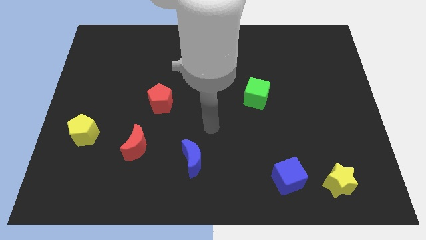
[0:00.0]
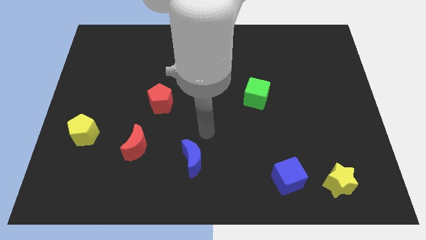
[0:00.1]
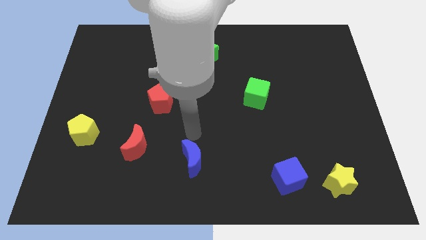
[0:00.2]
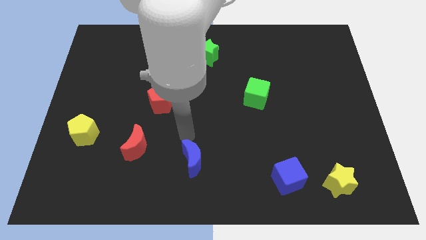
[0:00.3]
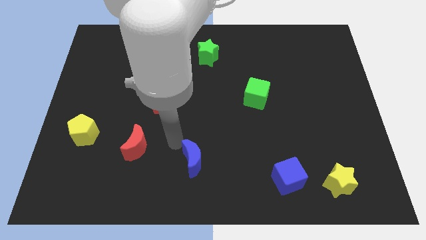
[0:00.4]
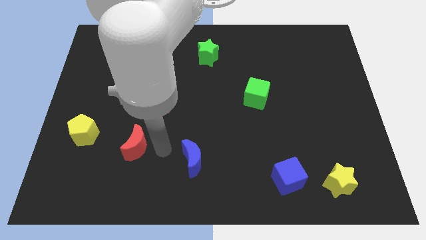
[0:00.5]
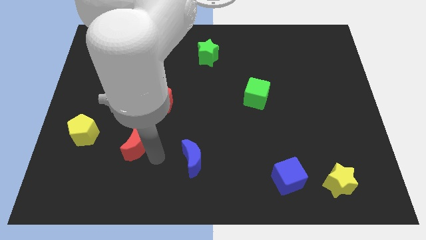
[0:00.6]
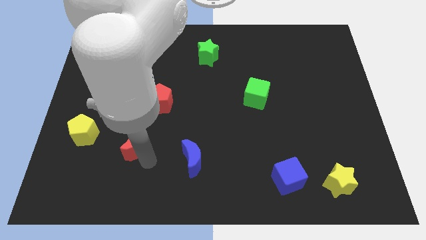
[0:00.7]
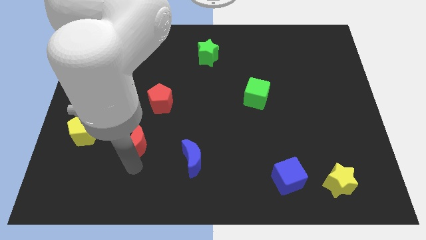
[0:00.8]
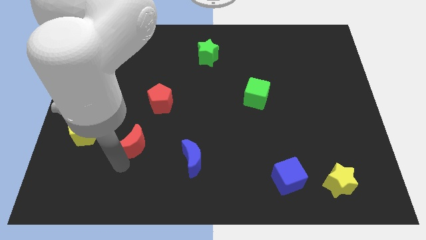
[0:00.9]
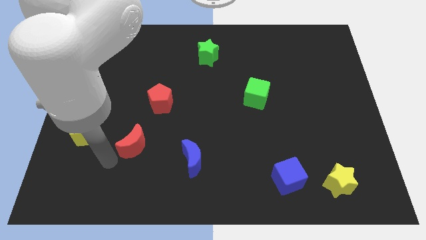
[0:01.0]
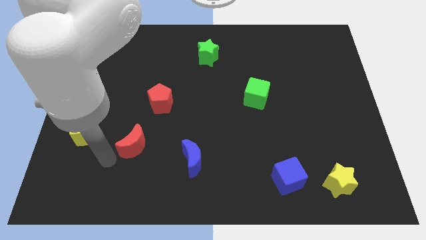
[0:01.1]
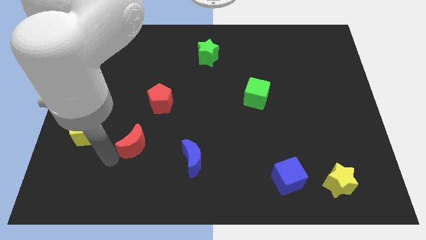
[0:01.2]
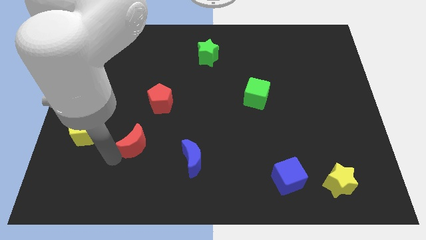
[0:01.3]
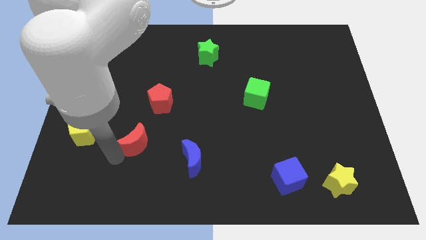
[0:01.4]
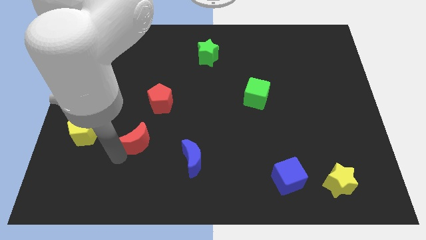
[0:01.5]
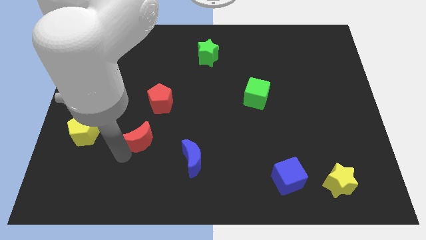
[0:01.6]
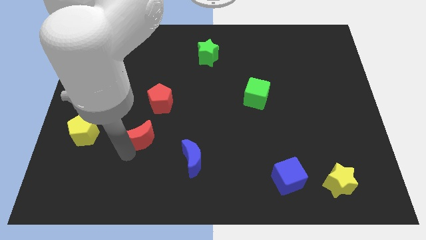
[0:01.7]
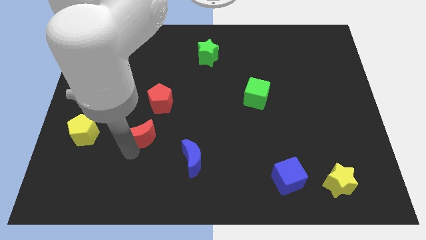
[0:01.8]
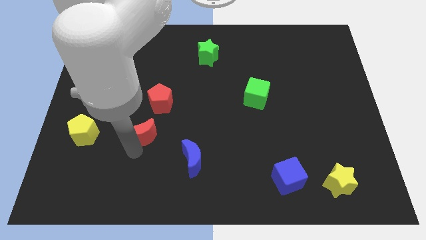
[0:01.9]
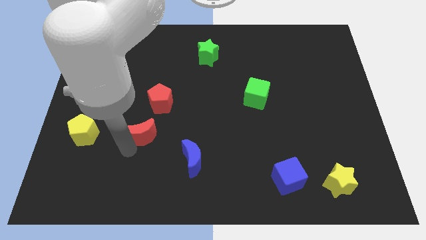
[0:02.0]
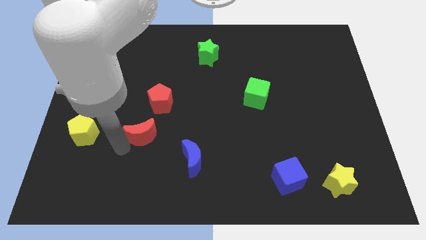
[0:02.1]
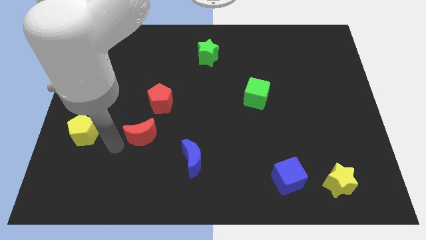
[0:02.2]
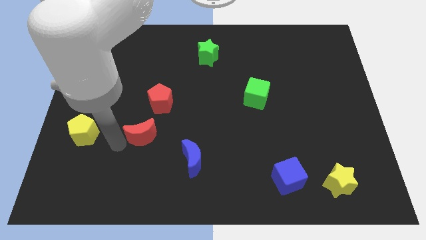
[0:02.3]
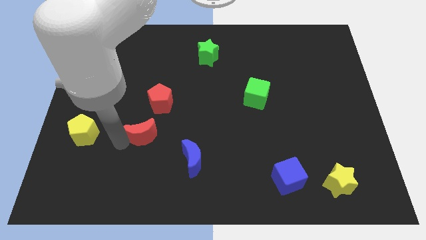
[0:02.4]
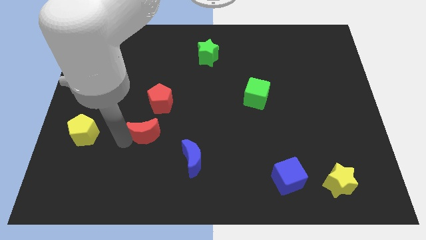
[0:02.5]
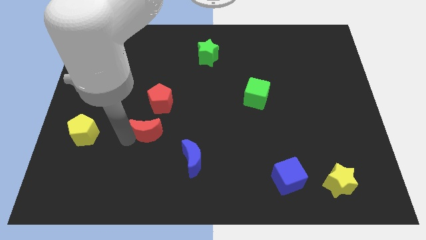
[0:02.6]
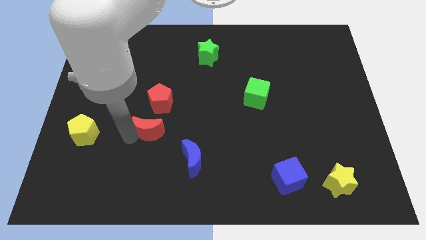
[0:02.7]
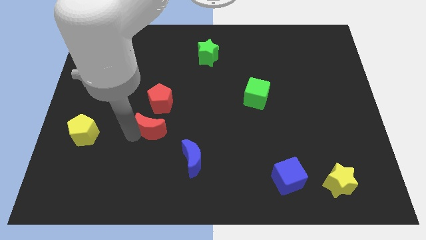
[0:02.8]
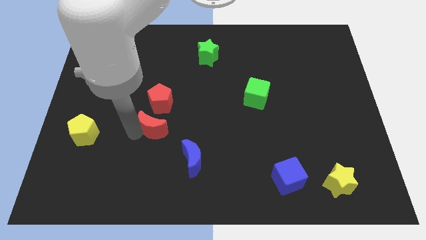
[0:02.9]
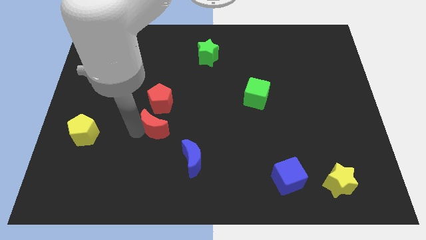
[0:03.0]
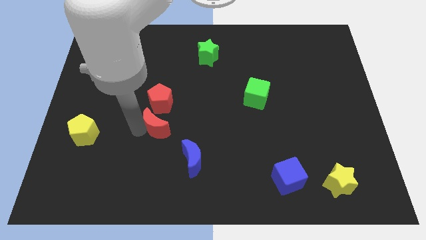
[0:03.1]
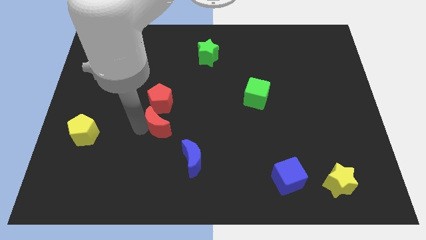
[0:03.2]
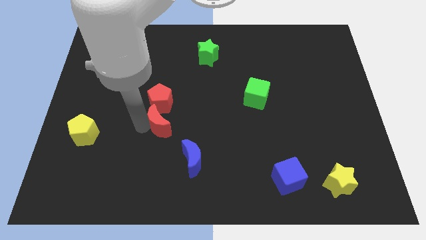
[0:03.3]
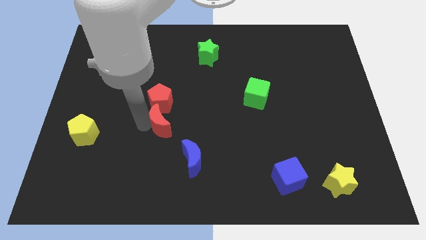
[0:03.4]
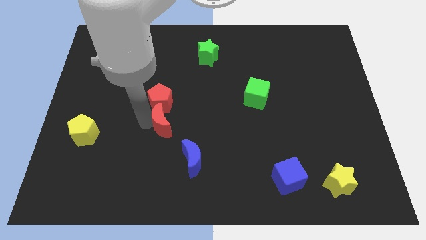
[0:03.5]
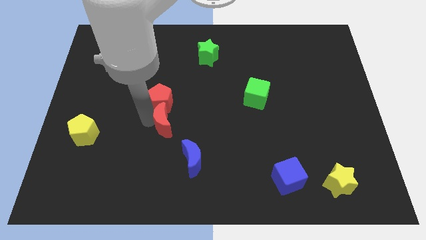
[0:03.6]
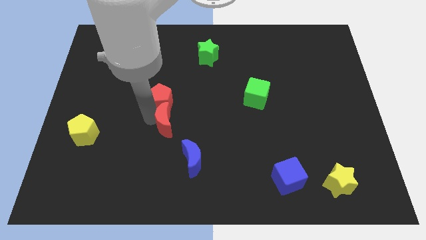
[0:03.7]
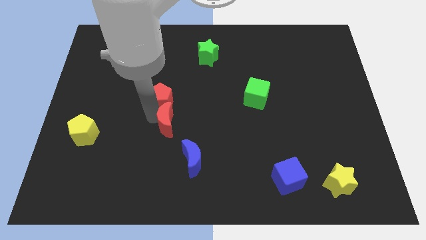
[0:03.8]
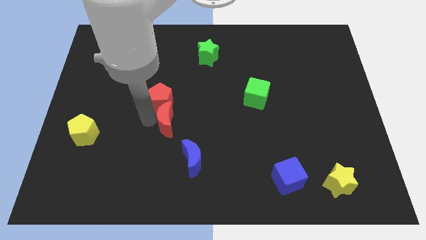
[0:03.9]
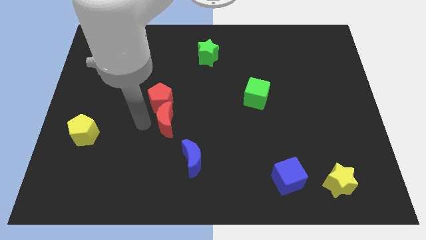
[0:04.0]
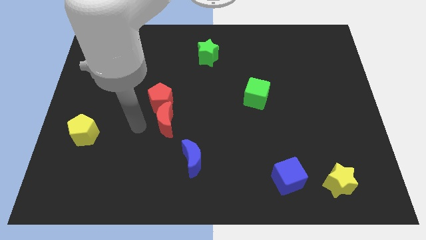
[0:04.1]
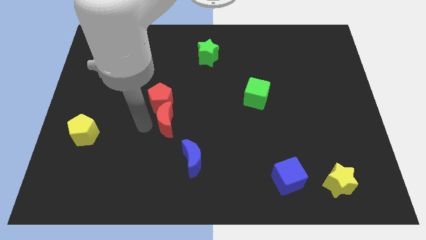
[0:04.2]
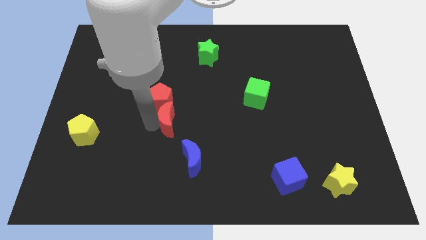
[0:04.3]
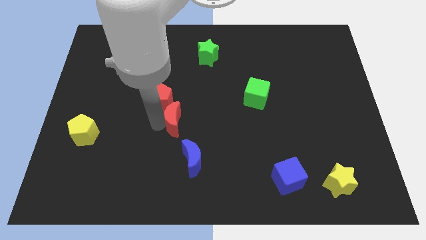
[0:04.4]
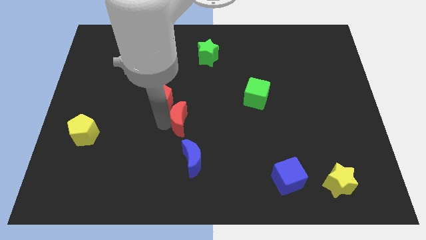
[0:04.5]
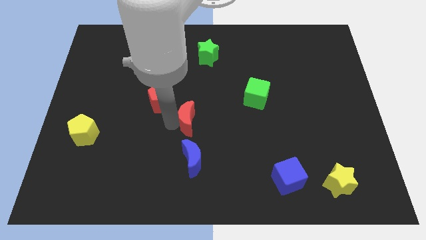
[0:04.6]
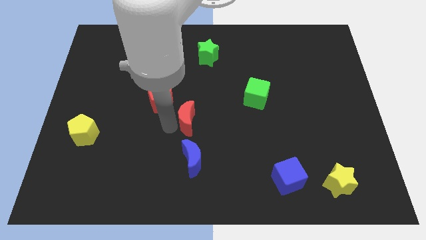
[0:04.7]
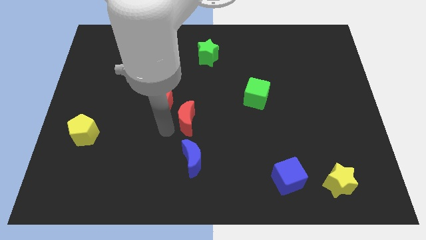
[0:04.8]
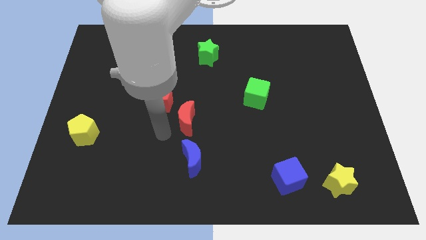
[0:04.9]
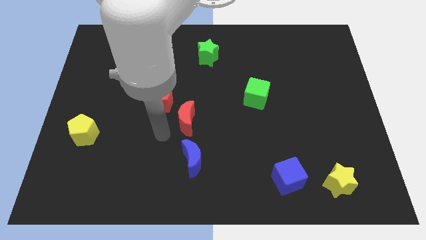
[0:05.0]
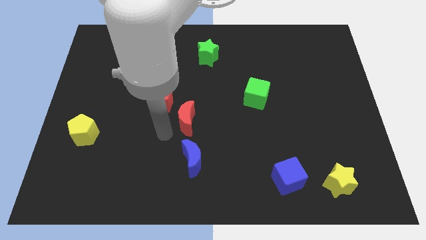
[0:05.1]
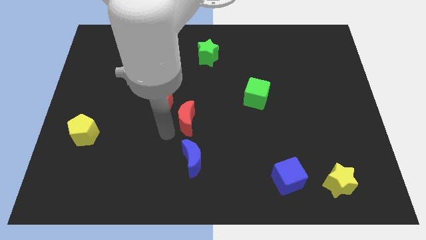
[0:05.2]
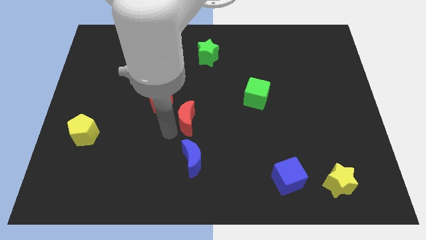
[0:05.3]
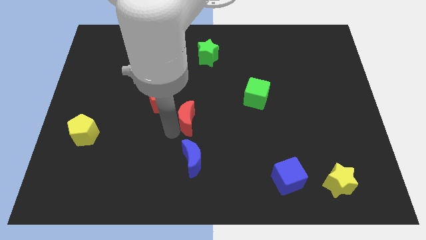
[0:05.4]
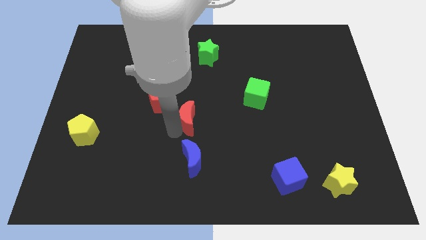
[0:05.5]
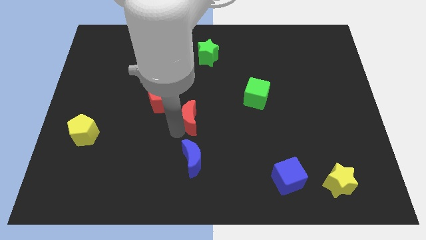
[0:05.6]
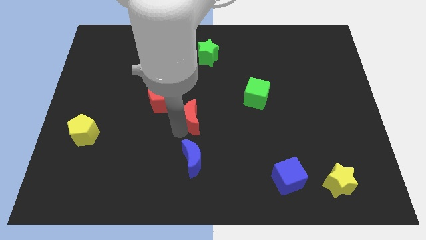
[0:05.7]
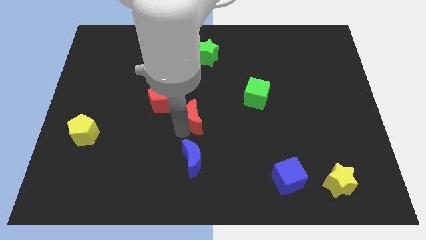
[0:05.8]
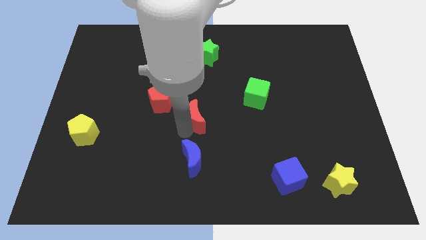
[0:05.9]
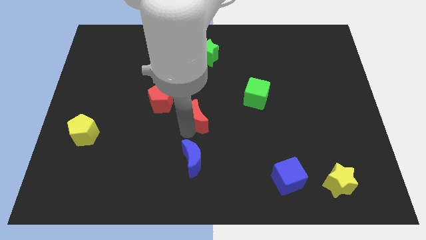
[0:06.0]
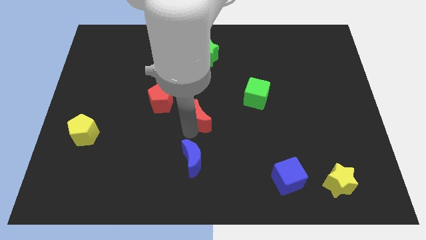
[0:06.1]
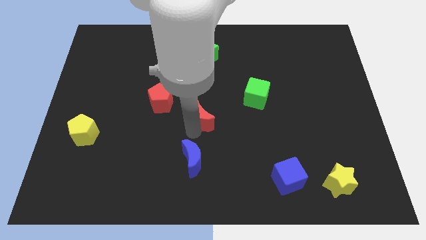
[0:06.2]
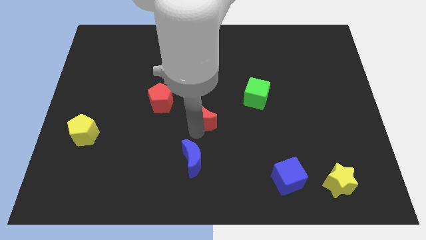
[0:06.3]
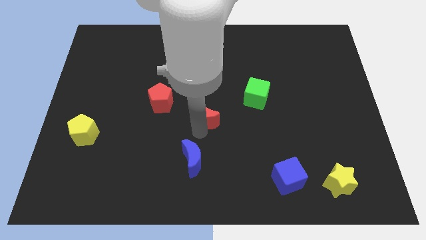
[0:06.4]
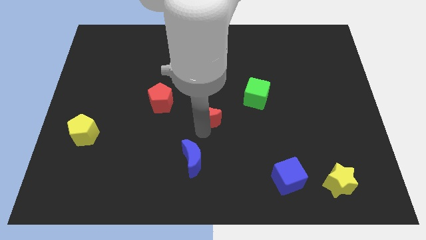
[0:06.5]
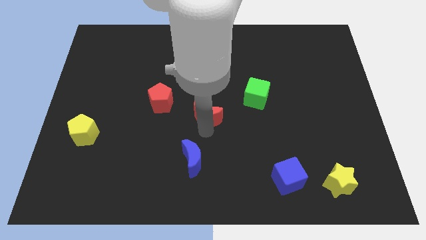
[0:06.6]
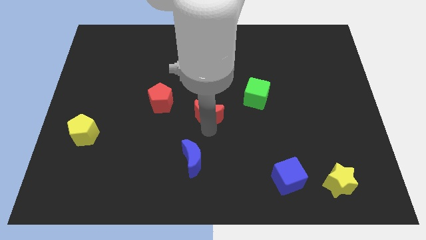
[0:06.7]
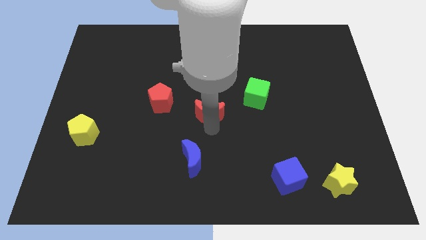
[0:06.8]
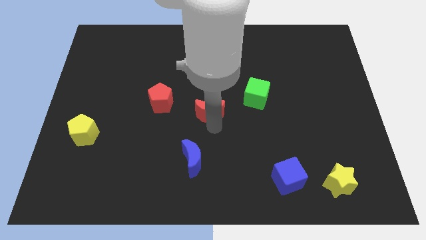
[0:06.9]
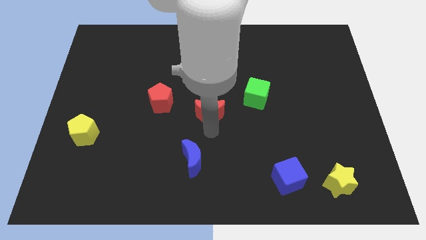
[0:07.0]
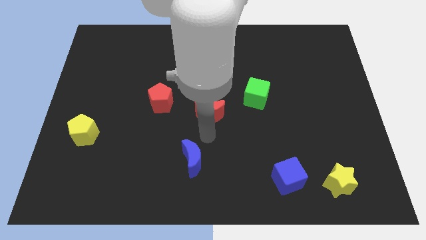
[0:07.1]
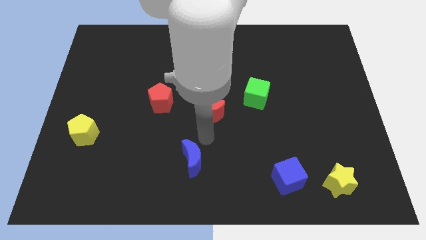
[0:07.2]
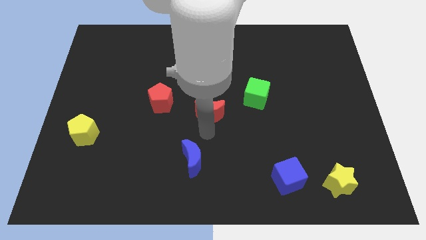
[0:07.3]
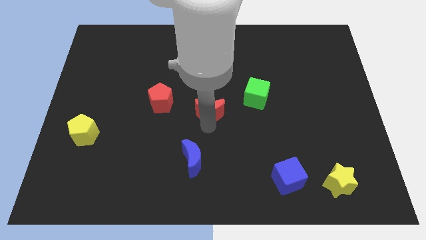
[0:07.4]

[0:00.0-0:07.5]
move the red moon to the left side of the green cube
